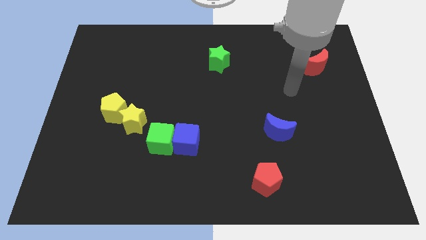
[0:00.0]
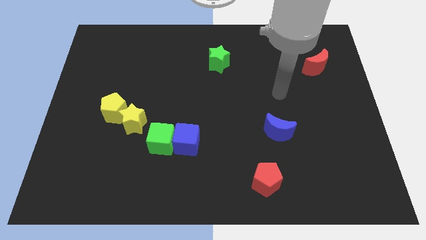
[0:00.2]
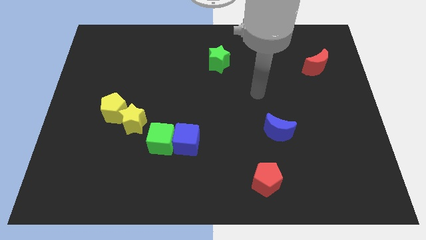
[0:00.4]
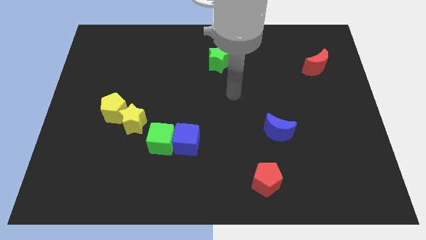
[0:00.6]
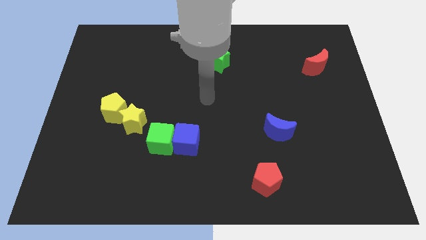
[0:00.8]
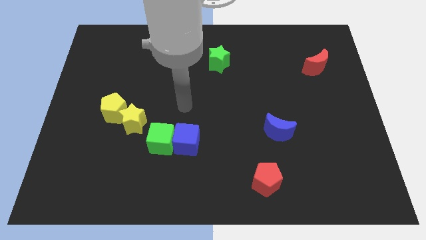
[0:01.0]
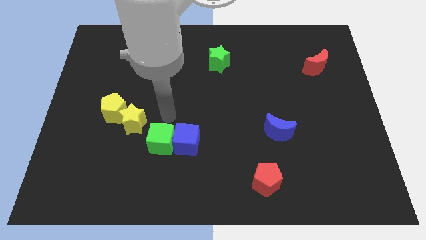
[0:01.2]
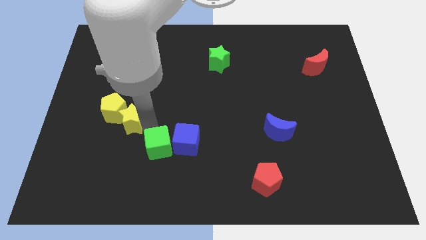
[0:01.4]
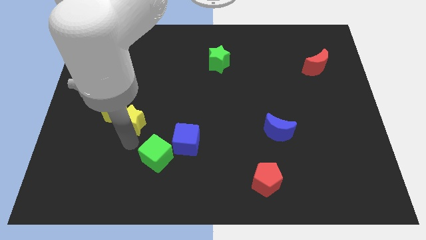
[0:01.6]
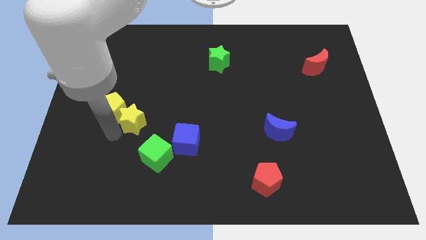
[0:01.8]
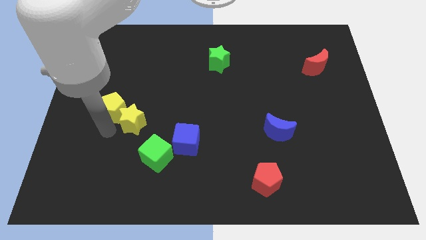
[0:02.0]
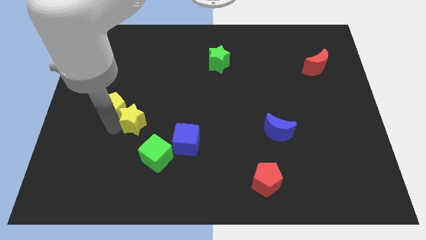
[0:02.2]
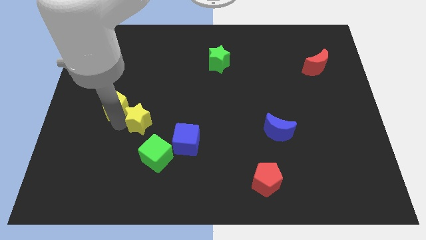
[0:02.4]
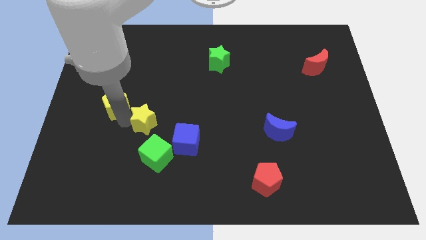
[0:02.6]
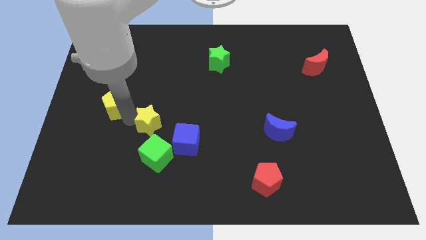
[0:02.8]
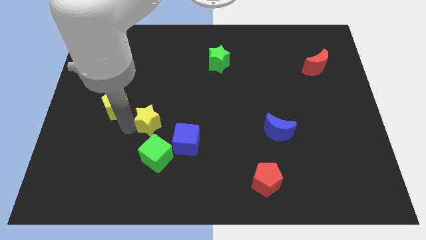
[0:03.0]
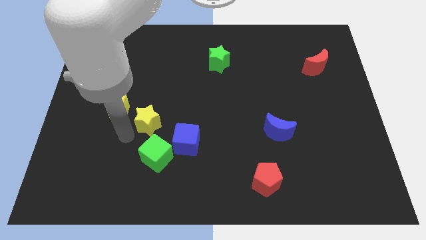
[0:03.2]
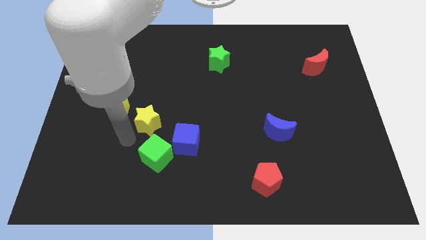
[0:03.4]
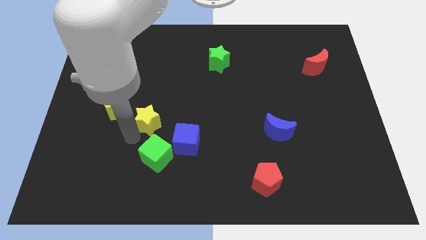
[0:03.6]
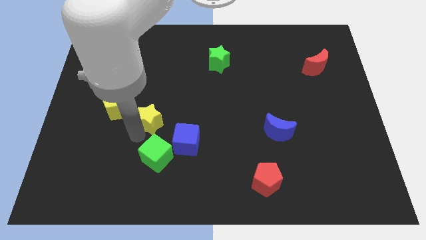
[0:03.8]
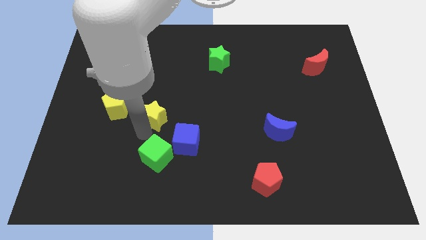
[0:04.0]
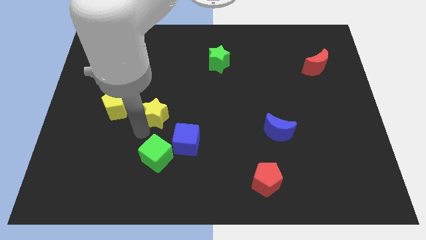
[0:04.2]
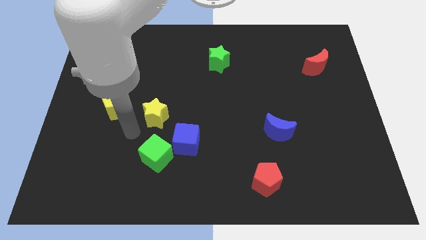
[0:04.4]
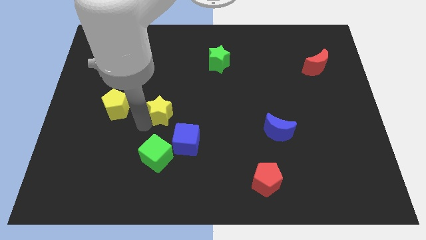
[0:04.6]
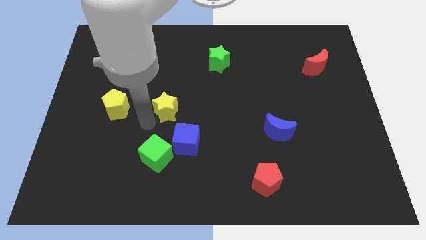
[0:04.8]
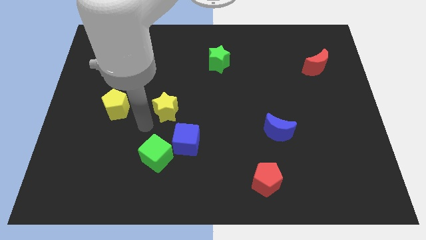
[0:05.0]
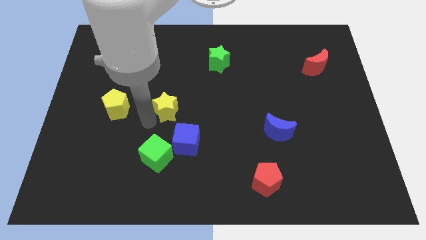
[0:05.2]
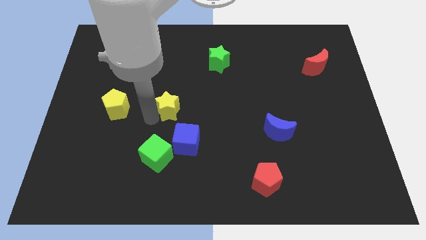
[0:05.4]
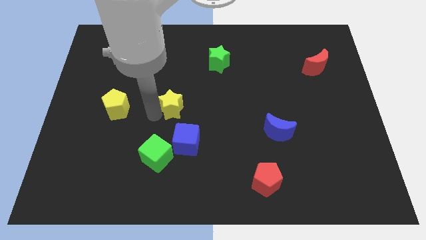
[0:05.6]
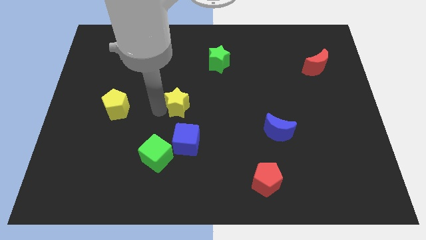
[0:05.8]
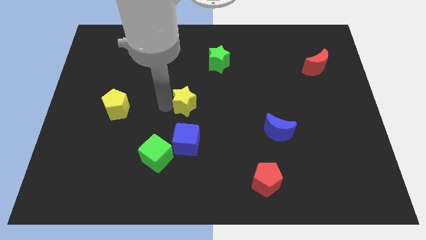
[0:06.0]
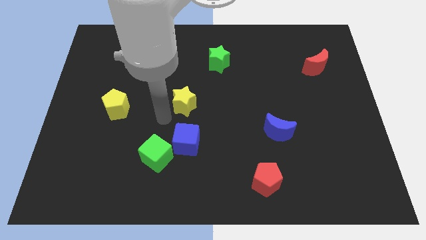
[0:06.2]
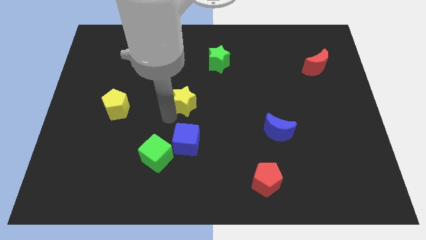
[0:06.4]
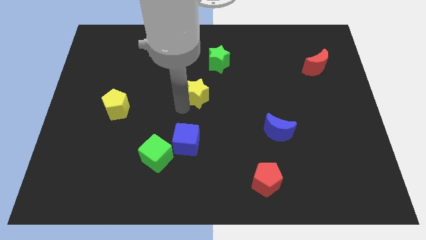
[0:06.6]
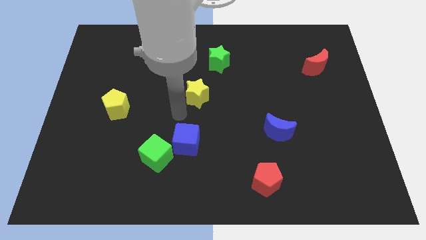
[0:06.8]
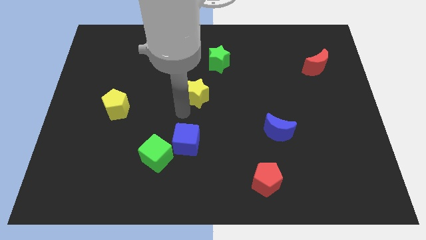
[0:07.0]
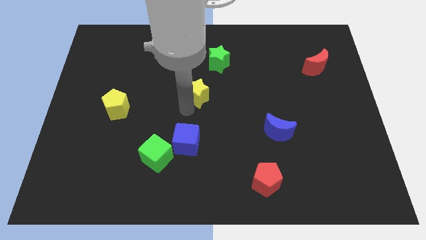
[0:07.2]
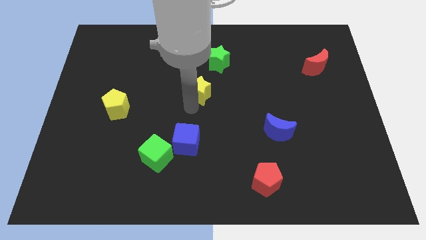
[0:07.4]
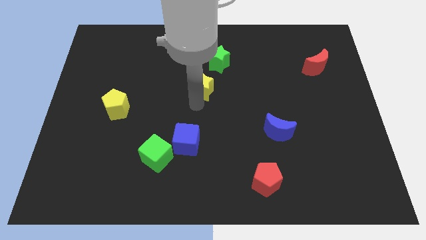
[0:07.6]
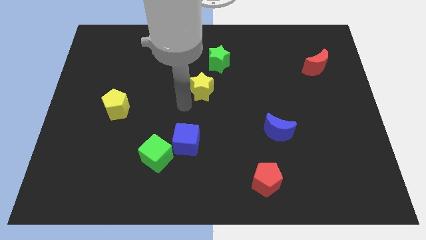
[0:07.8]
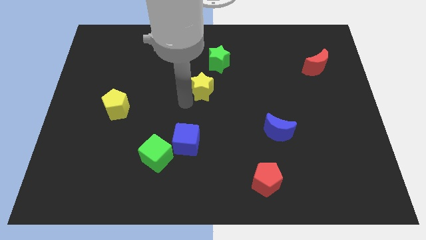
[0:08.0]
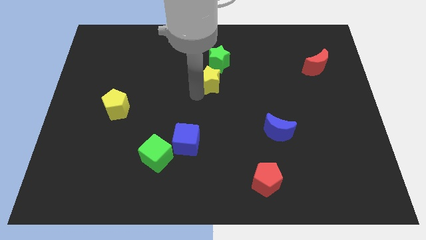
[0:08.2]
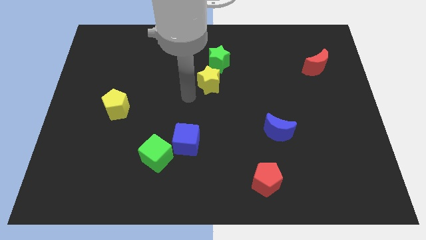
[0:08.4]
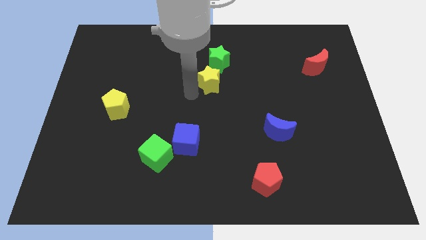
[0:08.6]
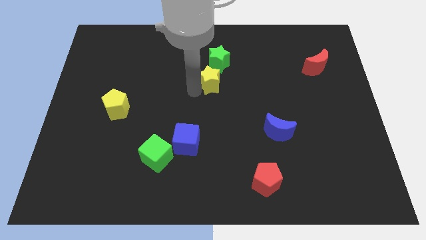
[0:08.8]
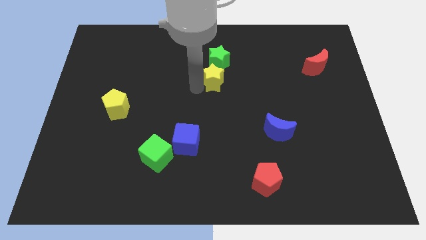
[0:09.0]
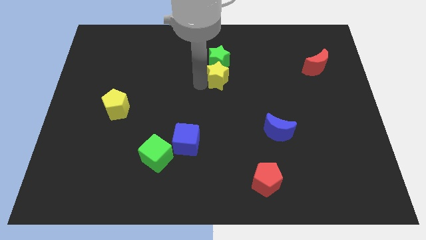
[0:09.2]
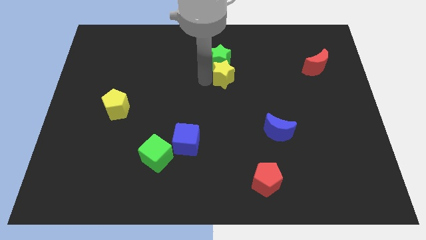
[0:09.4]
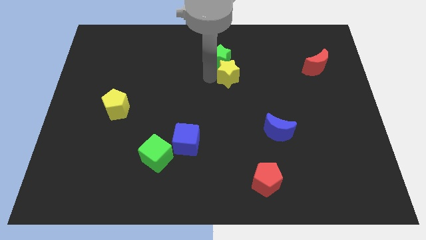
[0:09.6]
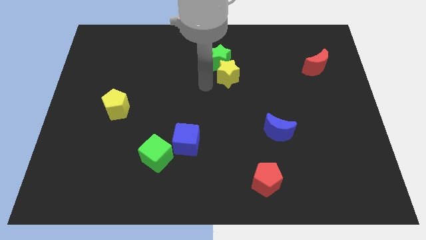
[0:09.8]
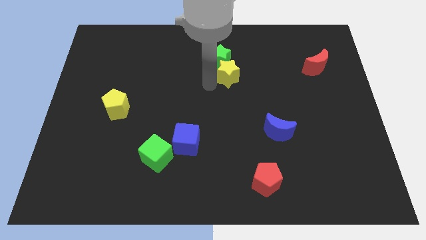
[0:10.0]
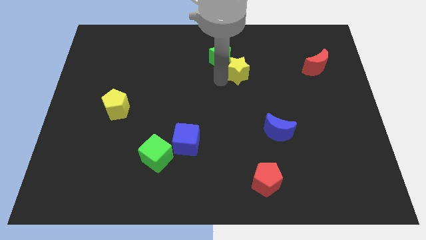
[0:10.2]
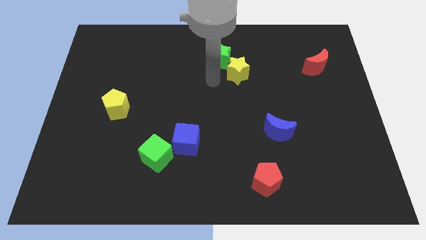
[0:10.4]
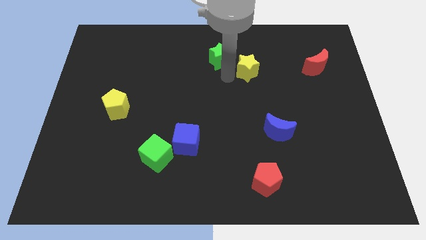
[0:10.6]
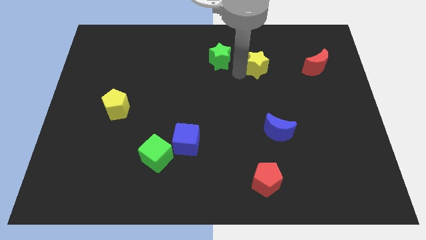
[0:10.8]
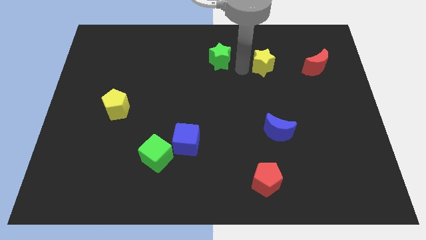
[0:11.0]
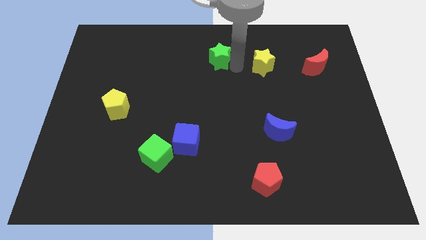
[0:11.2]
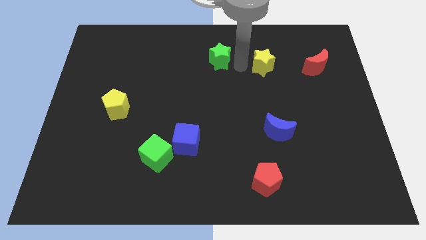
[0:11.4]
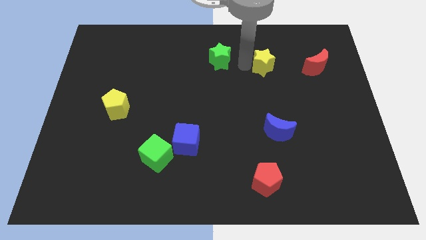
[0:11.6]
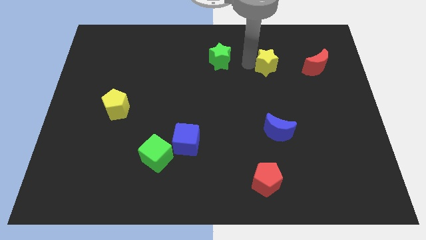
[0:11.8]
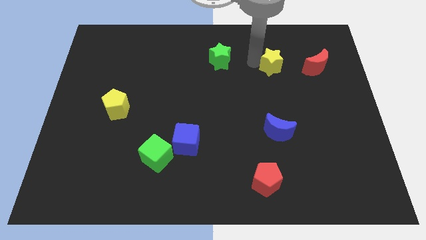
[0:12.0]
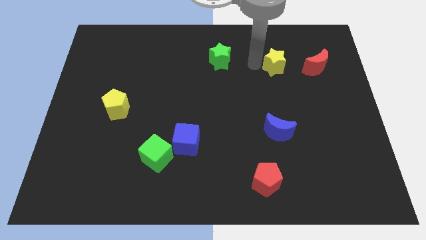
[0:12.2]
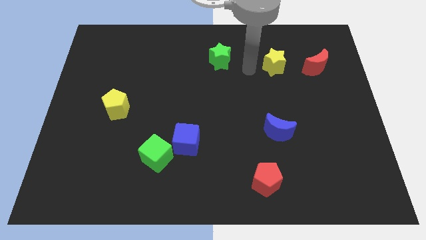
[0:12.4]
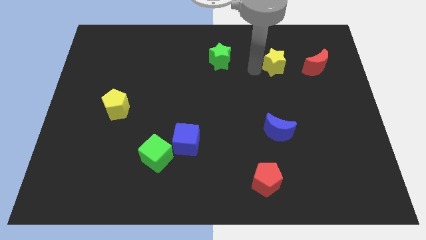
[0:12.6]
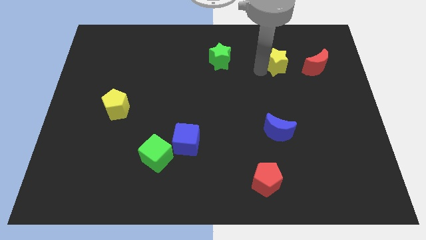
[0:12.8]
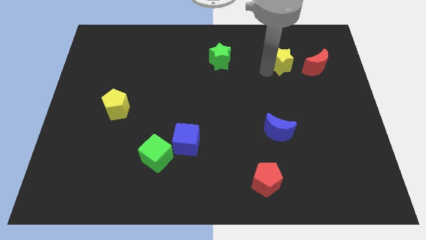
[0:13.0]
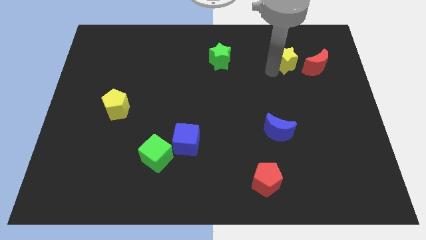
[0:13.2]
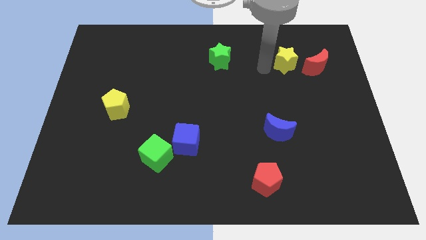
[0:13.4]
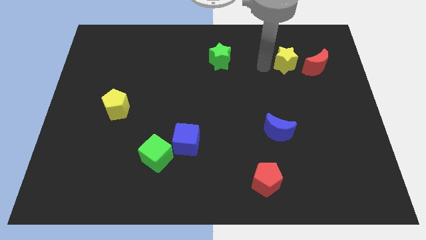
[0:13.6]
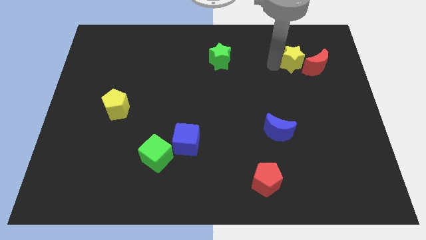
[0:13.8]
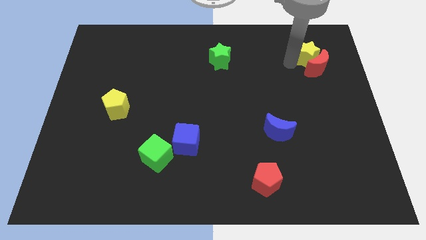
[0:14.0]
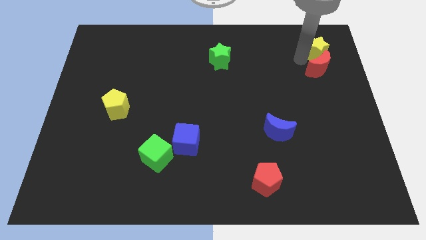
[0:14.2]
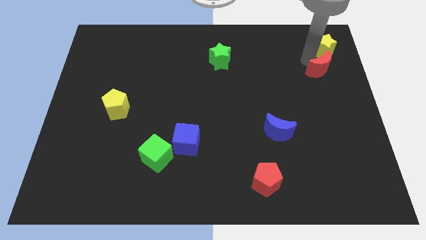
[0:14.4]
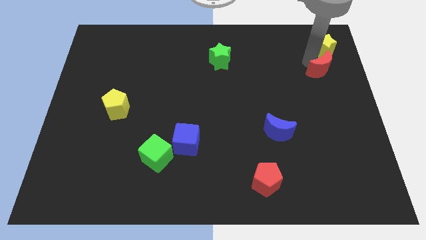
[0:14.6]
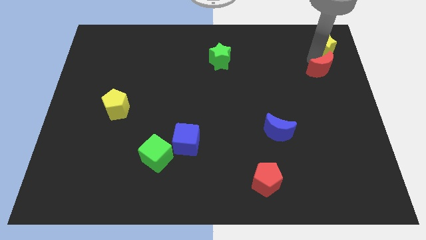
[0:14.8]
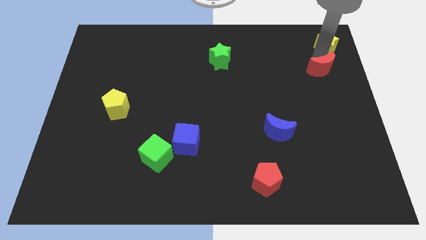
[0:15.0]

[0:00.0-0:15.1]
put the yellow star to the top right corner
